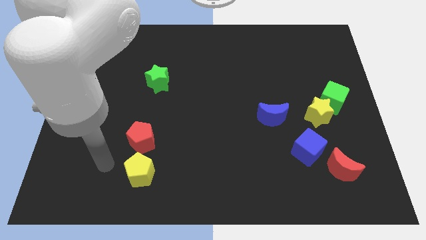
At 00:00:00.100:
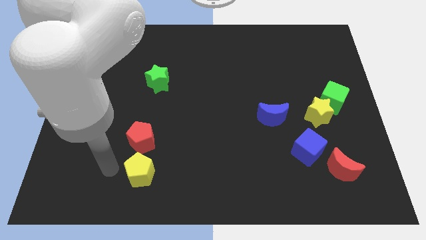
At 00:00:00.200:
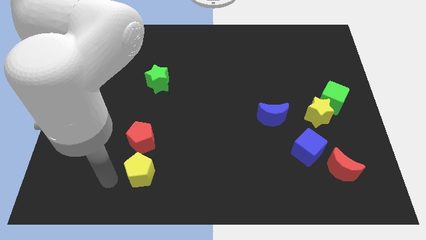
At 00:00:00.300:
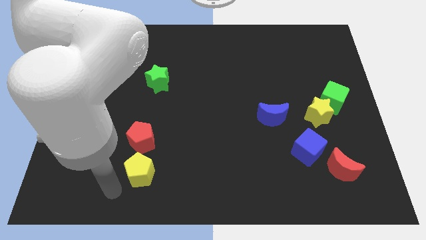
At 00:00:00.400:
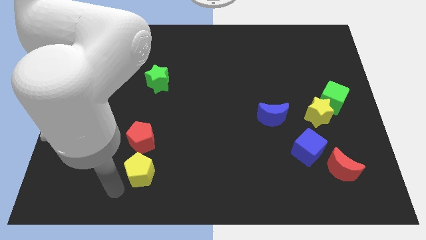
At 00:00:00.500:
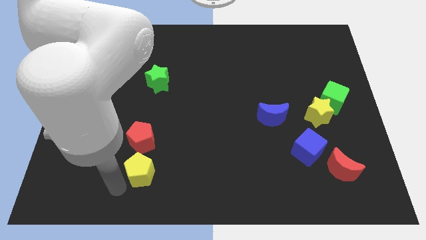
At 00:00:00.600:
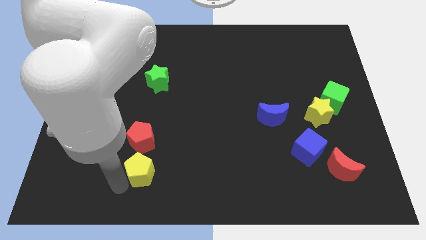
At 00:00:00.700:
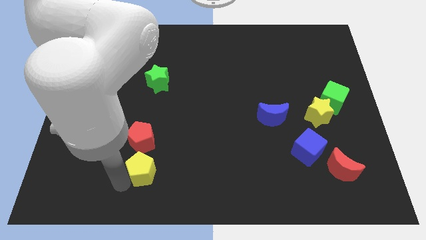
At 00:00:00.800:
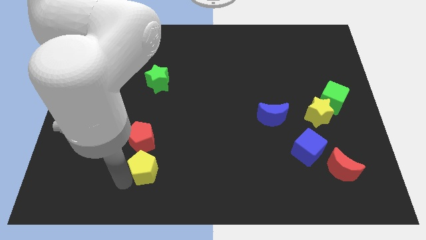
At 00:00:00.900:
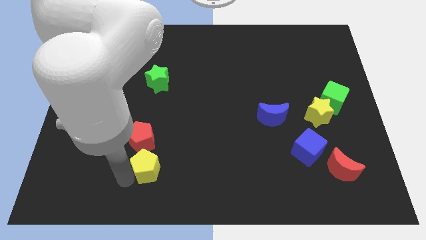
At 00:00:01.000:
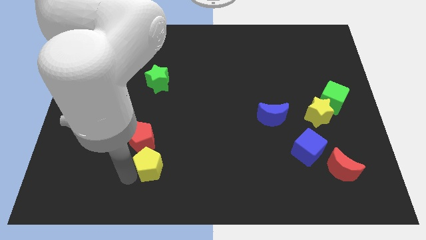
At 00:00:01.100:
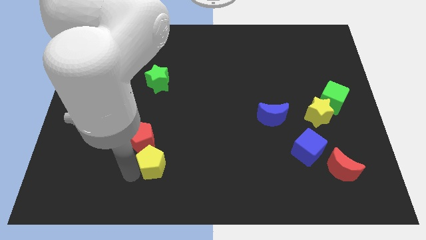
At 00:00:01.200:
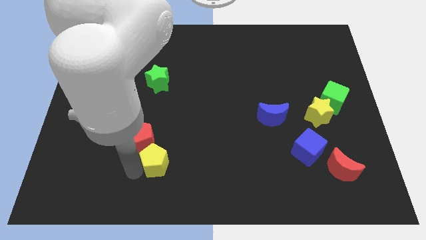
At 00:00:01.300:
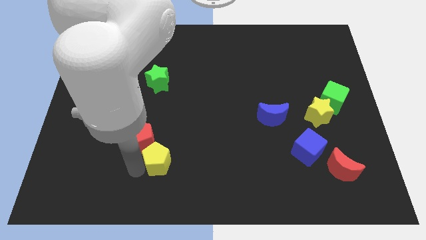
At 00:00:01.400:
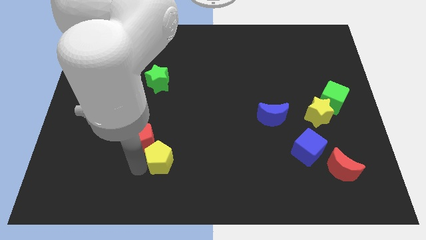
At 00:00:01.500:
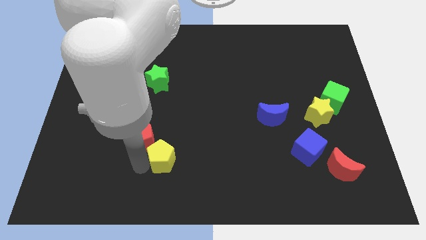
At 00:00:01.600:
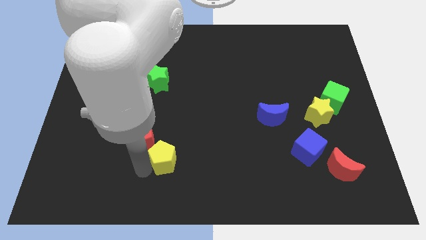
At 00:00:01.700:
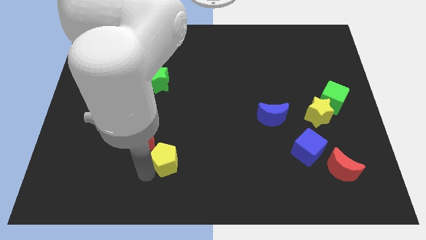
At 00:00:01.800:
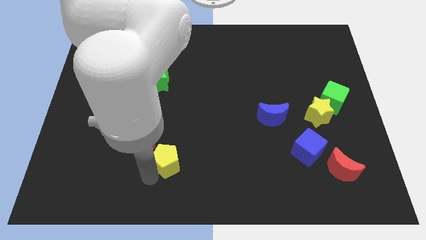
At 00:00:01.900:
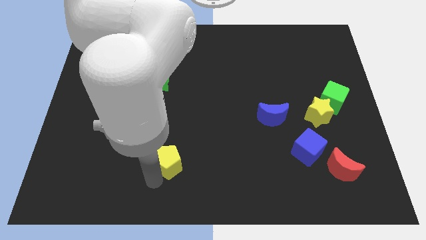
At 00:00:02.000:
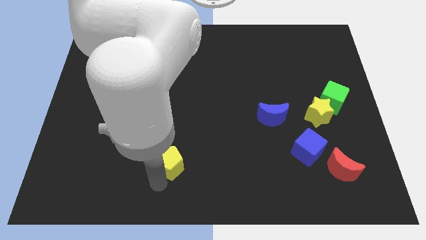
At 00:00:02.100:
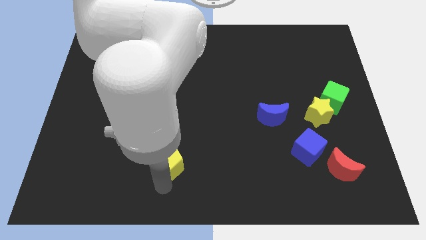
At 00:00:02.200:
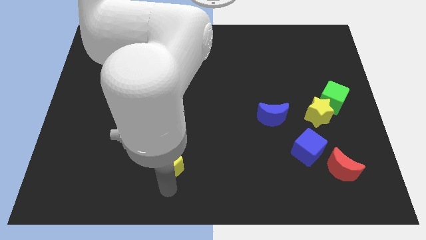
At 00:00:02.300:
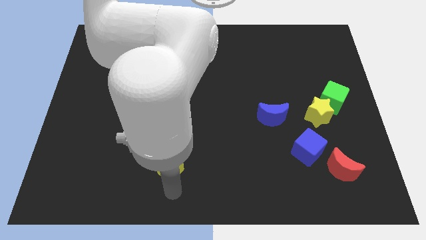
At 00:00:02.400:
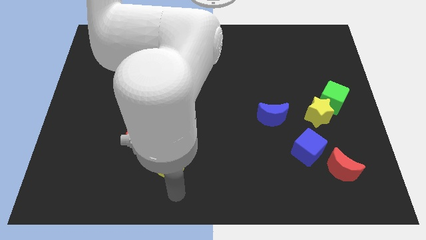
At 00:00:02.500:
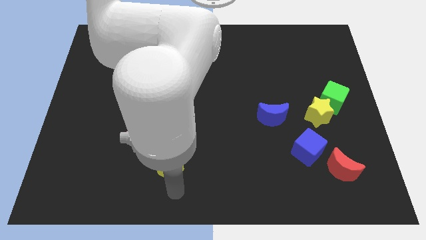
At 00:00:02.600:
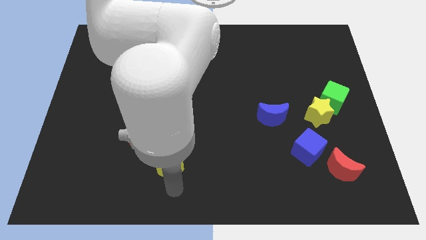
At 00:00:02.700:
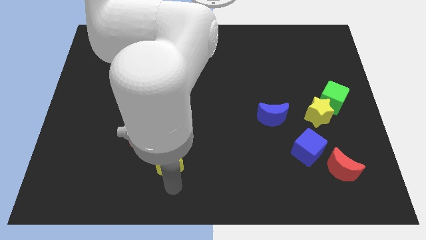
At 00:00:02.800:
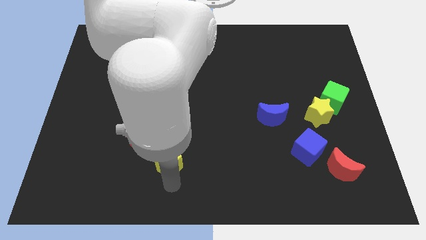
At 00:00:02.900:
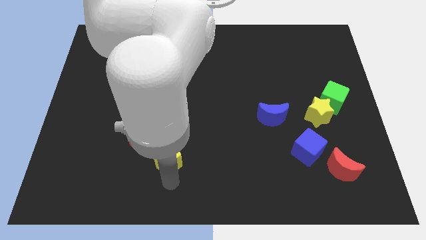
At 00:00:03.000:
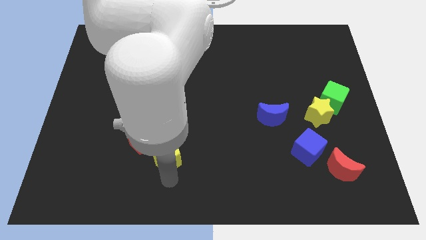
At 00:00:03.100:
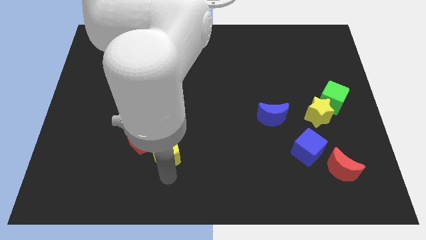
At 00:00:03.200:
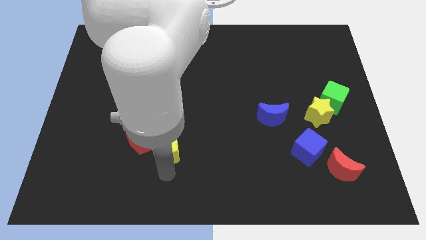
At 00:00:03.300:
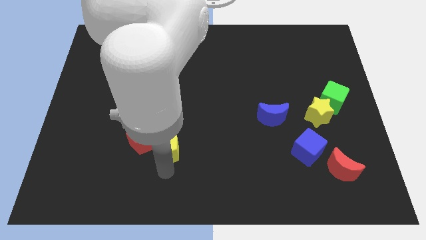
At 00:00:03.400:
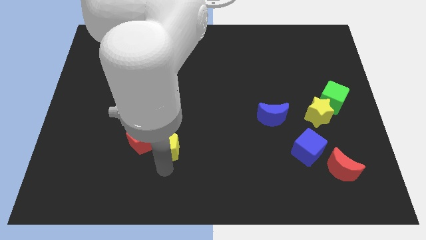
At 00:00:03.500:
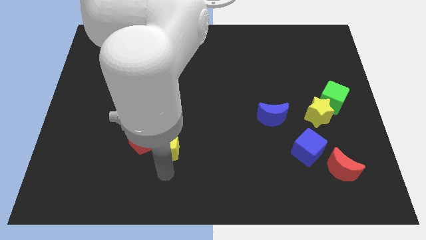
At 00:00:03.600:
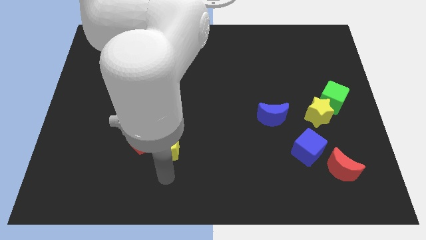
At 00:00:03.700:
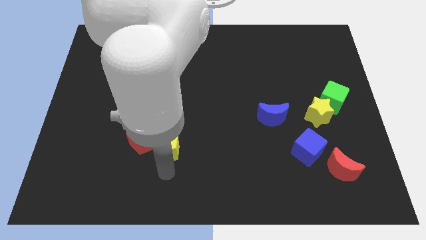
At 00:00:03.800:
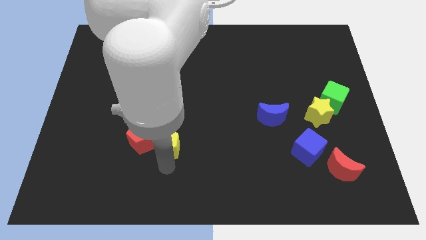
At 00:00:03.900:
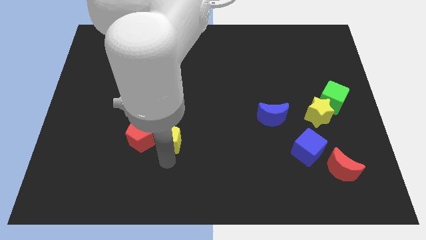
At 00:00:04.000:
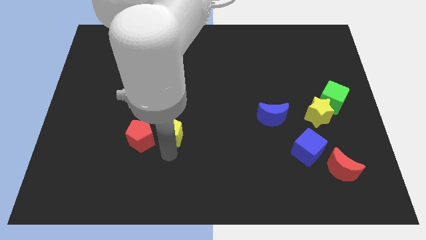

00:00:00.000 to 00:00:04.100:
slightly slide the yellow pentagon up

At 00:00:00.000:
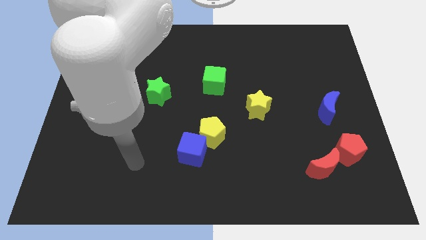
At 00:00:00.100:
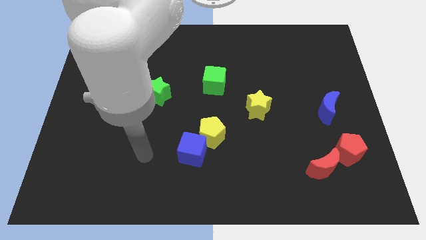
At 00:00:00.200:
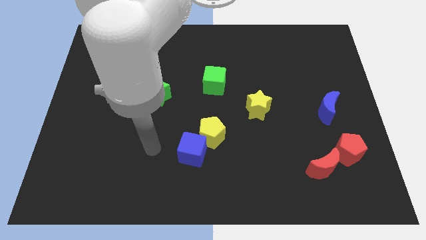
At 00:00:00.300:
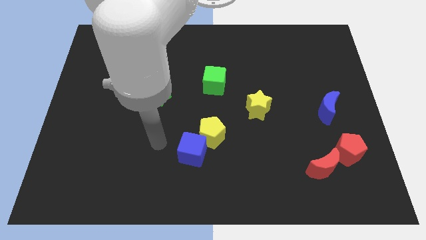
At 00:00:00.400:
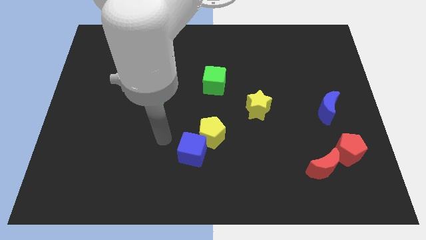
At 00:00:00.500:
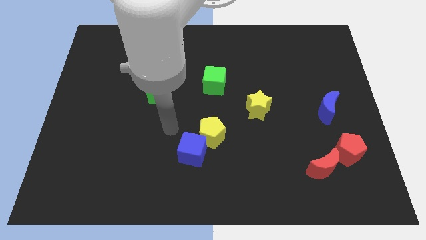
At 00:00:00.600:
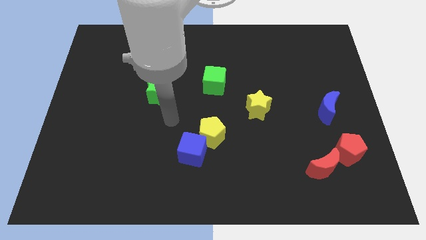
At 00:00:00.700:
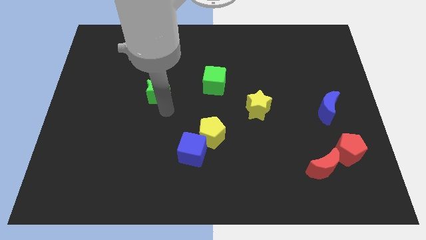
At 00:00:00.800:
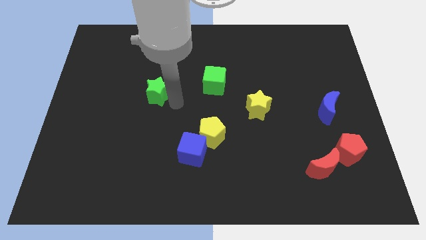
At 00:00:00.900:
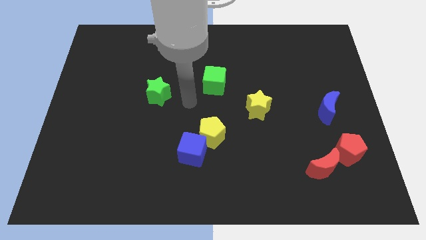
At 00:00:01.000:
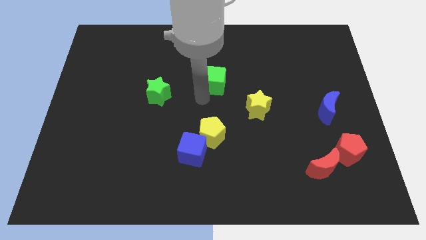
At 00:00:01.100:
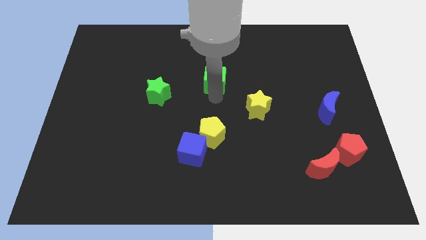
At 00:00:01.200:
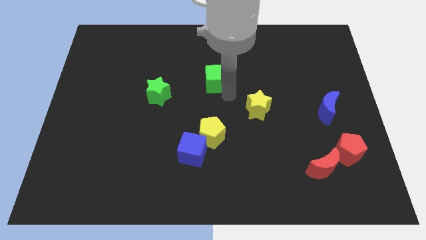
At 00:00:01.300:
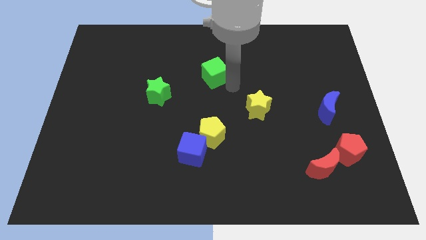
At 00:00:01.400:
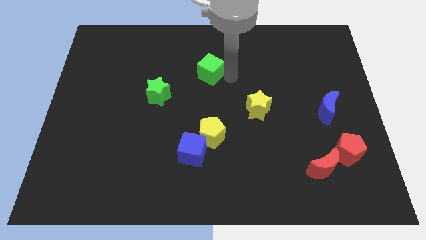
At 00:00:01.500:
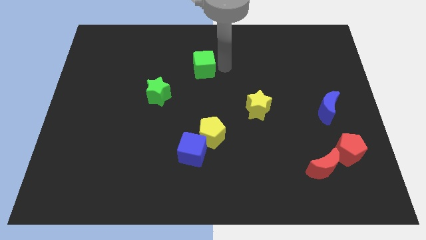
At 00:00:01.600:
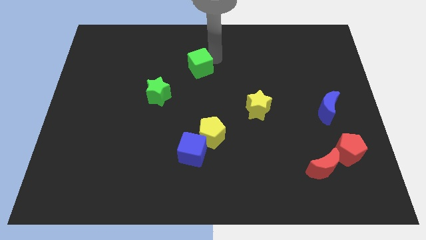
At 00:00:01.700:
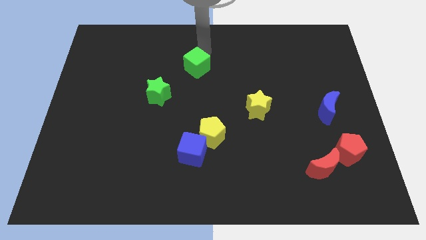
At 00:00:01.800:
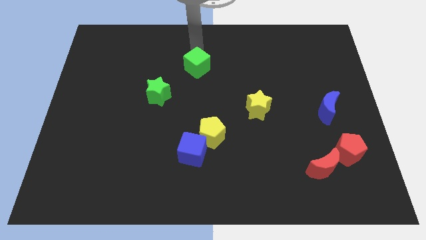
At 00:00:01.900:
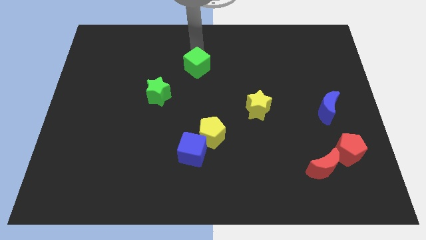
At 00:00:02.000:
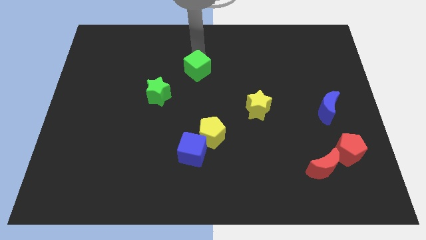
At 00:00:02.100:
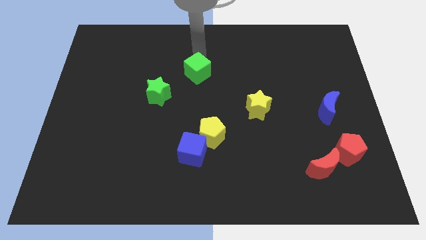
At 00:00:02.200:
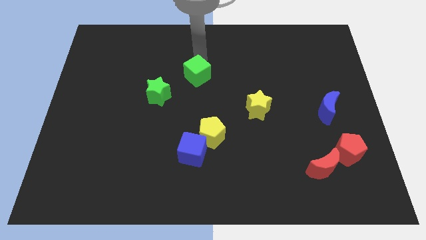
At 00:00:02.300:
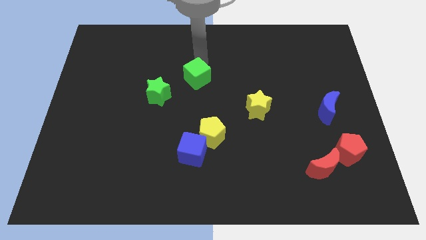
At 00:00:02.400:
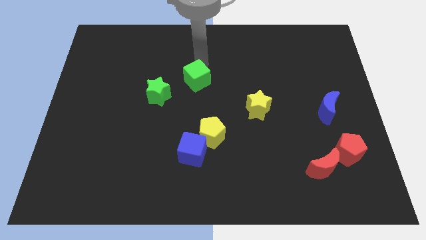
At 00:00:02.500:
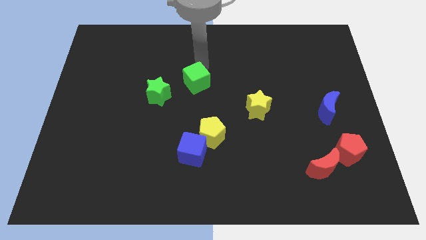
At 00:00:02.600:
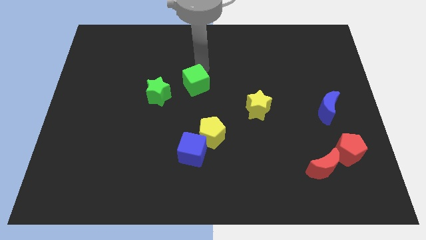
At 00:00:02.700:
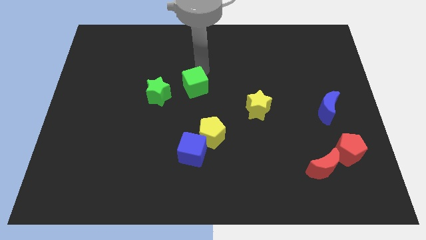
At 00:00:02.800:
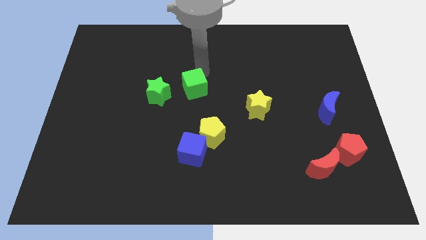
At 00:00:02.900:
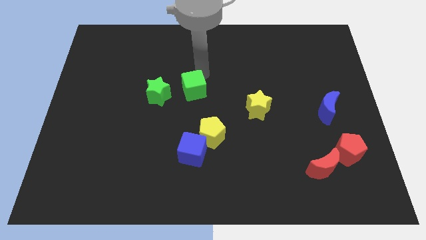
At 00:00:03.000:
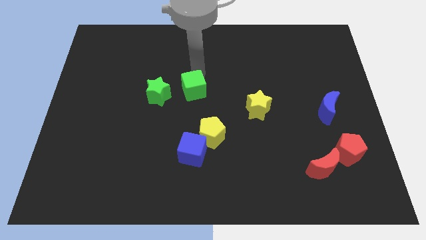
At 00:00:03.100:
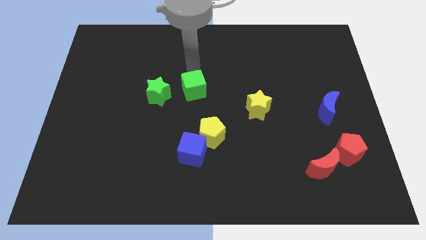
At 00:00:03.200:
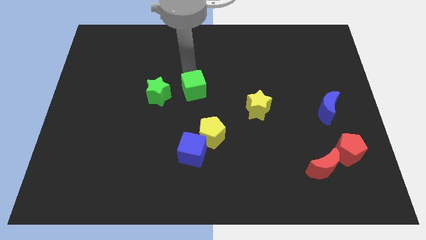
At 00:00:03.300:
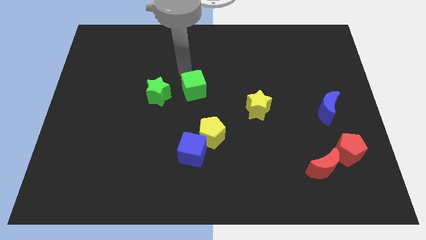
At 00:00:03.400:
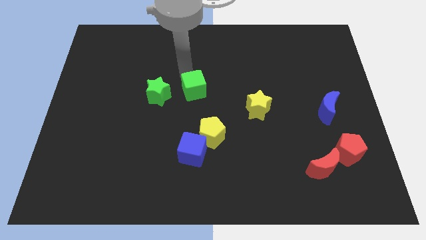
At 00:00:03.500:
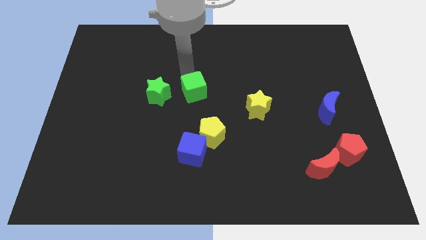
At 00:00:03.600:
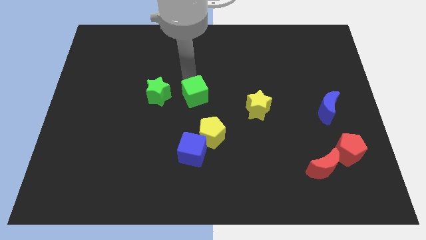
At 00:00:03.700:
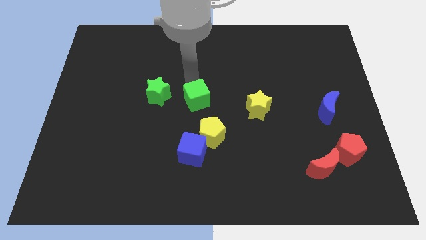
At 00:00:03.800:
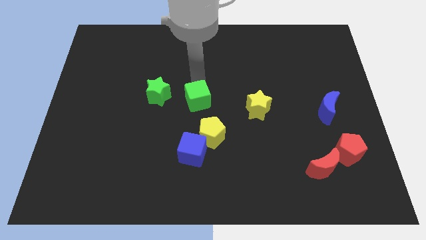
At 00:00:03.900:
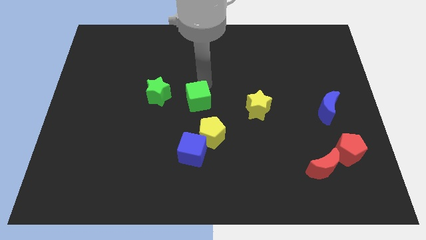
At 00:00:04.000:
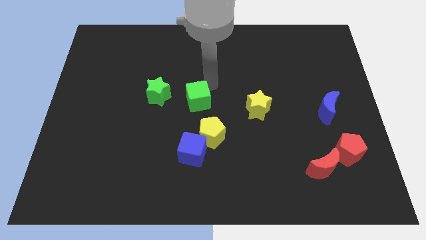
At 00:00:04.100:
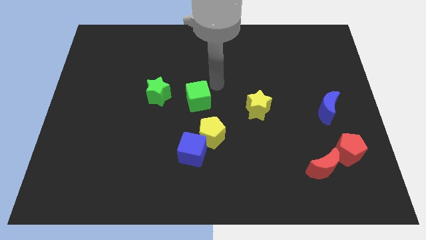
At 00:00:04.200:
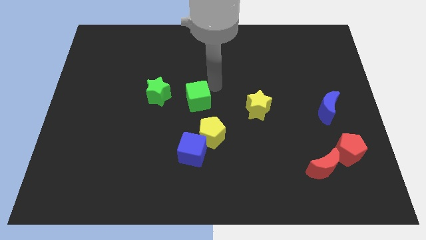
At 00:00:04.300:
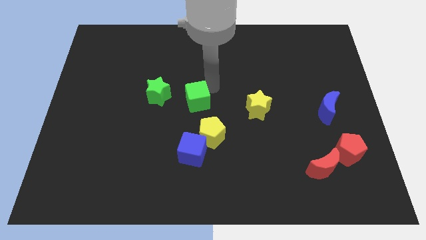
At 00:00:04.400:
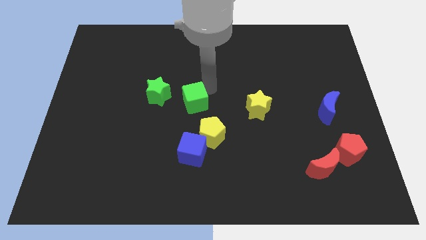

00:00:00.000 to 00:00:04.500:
move the green cube down and to the left diagonally a little bit

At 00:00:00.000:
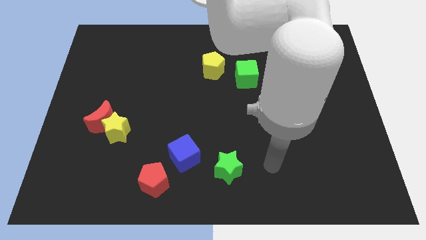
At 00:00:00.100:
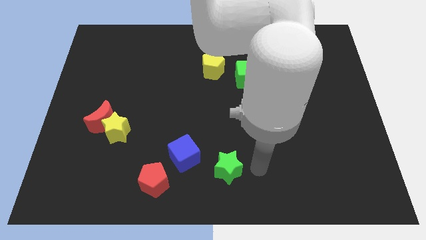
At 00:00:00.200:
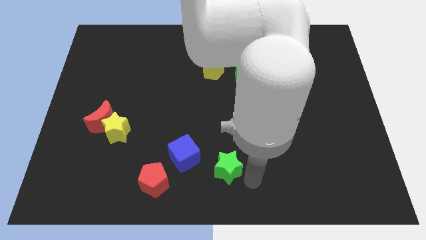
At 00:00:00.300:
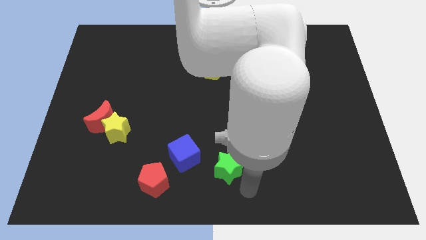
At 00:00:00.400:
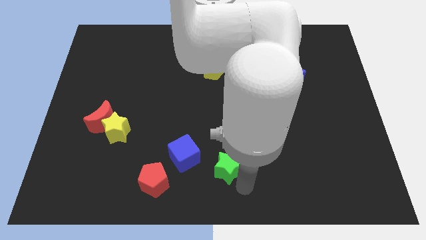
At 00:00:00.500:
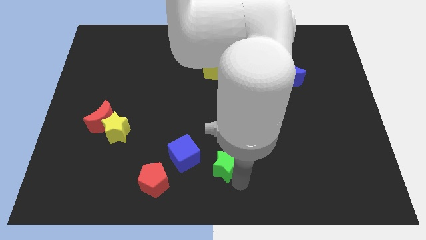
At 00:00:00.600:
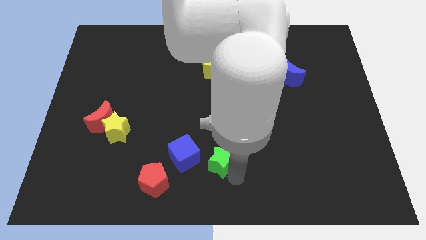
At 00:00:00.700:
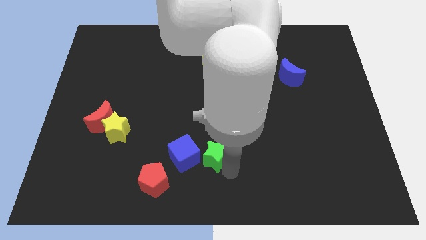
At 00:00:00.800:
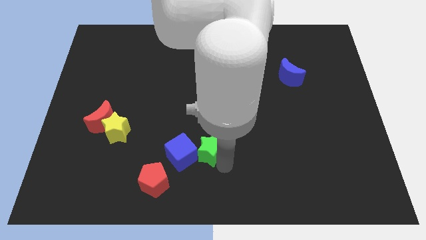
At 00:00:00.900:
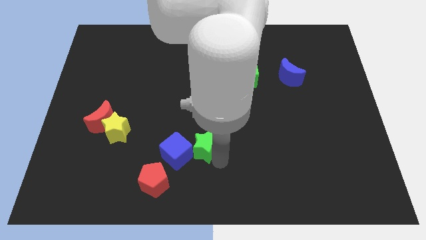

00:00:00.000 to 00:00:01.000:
slightly push the green star diagonally up and to the left
